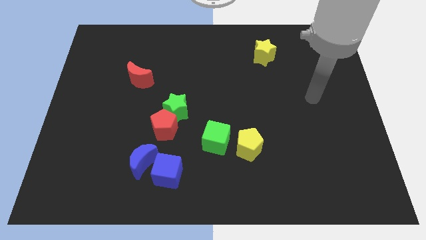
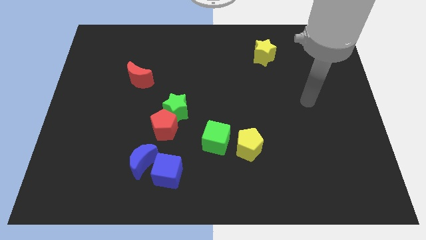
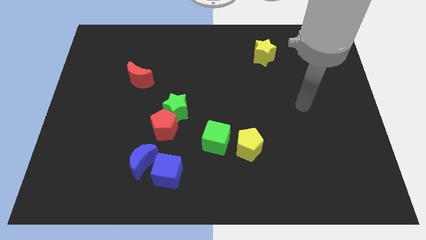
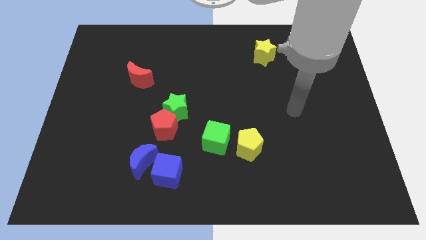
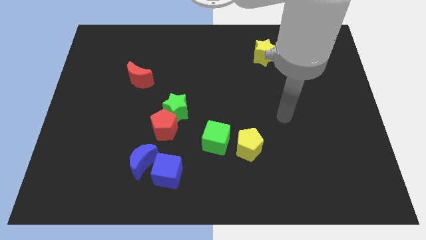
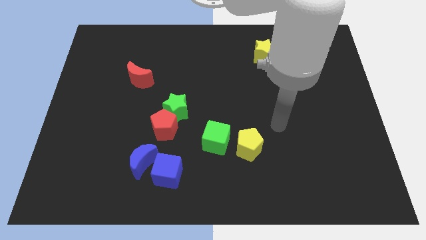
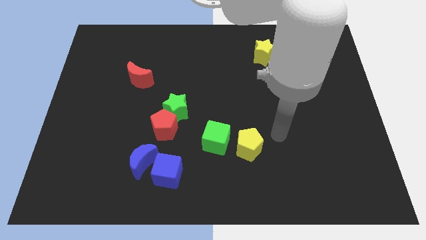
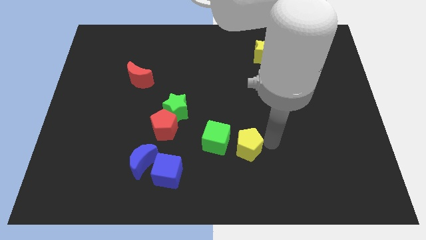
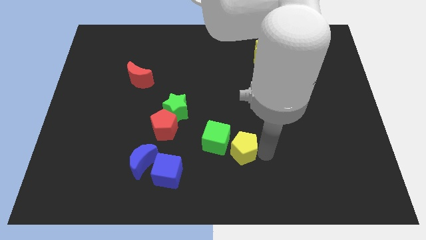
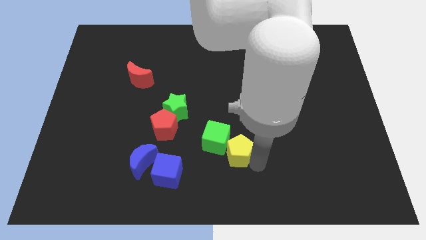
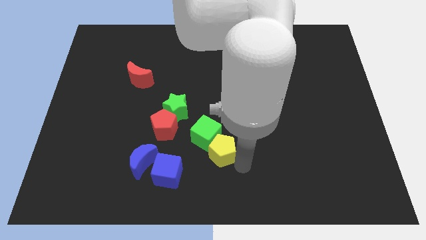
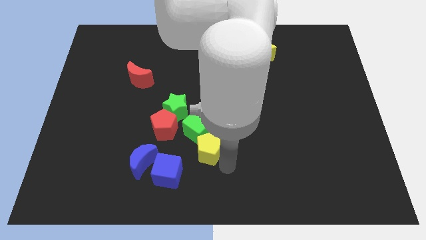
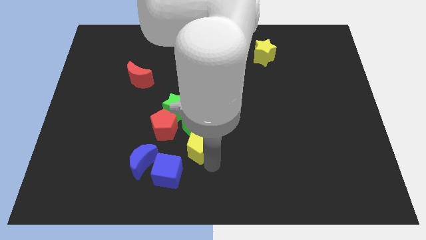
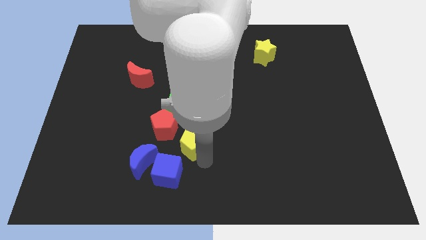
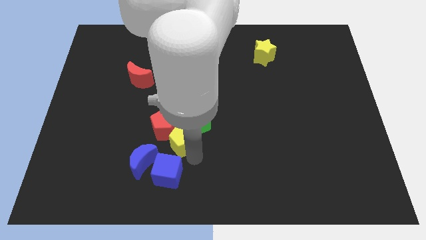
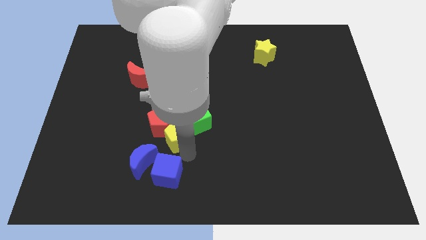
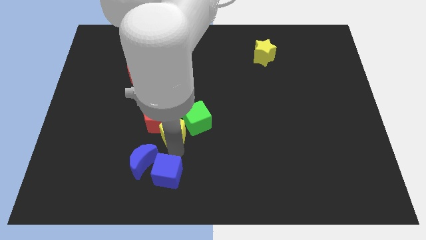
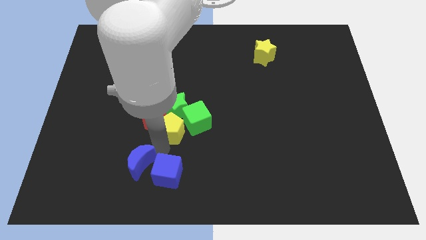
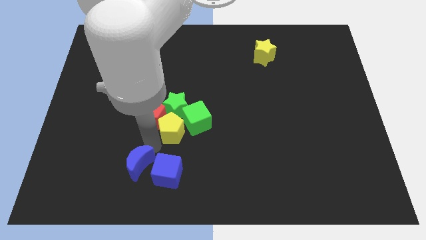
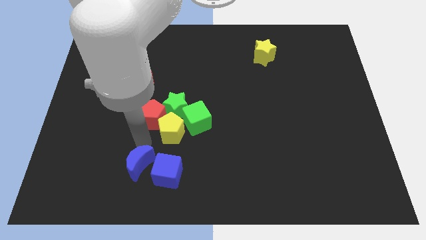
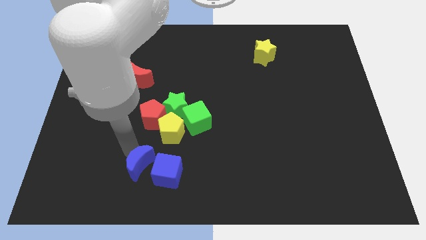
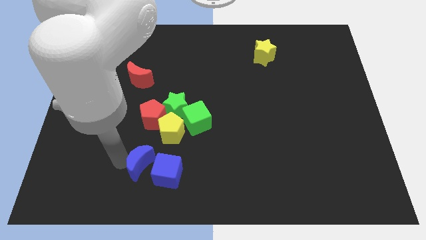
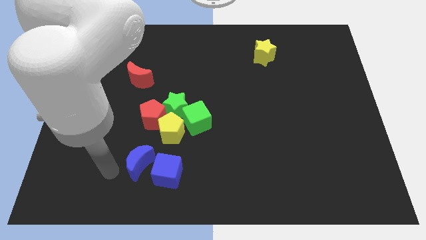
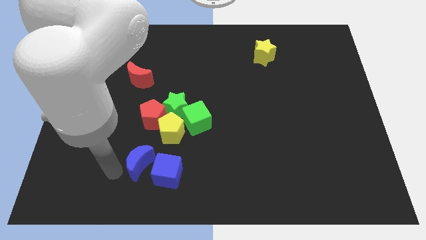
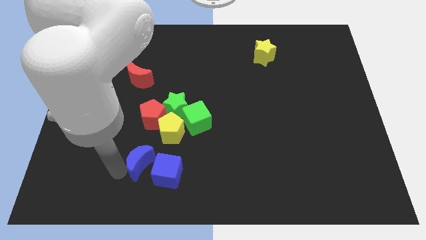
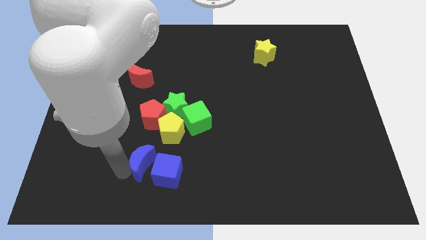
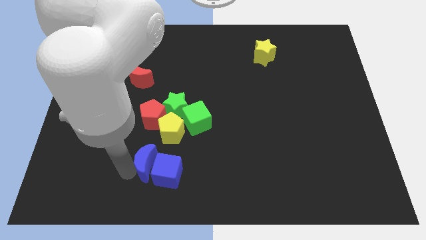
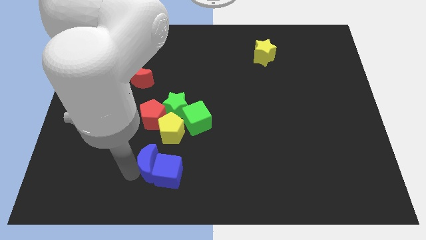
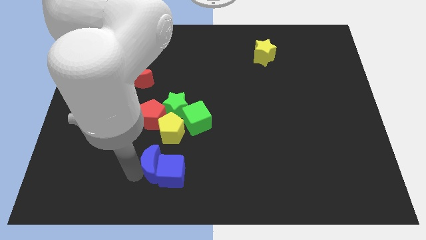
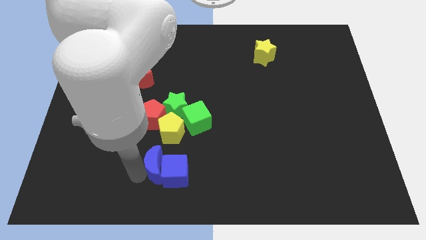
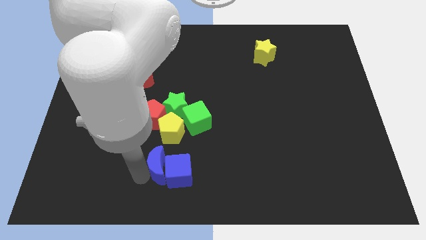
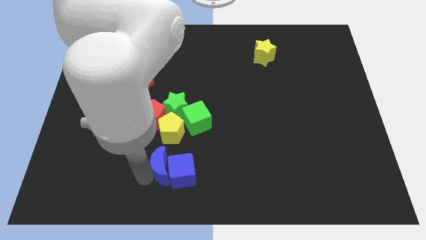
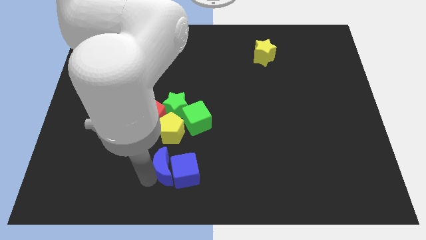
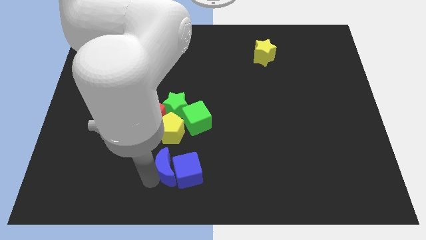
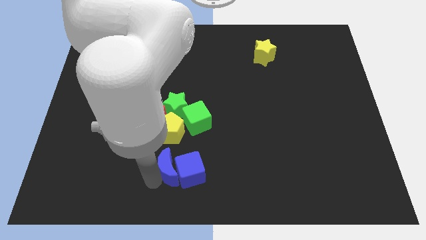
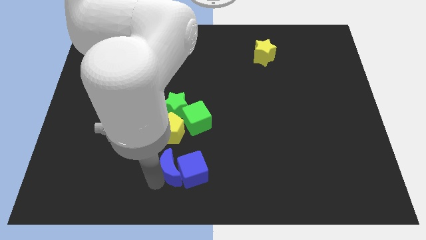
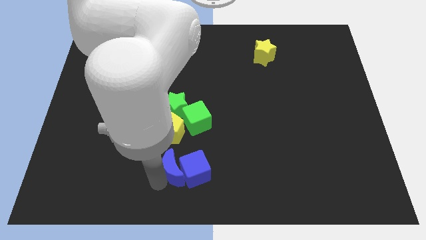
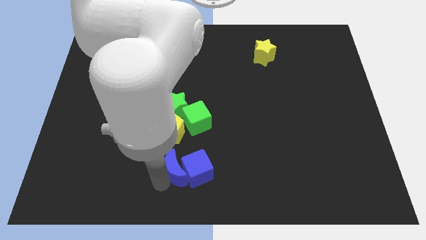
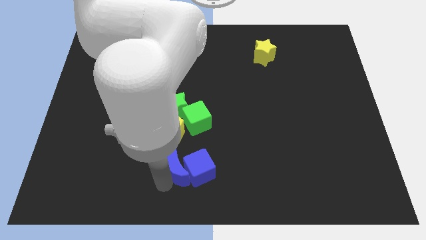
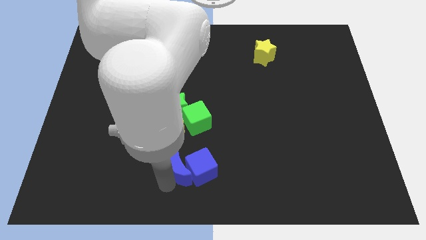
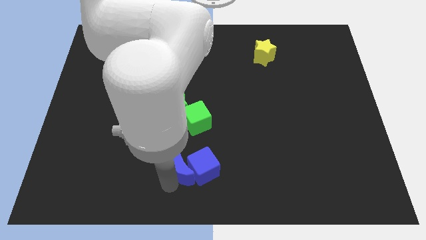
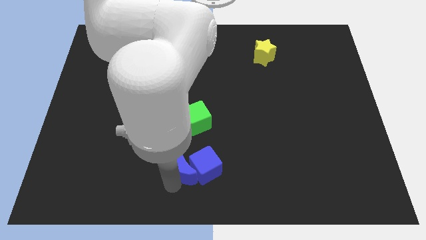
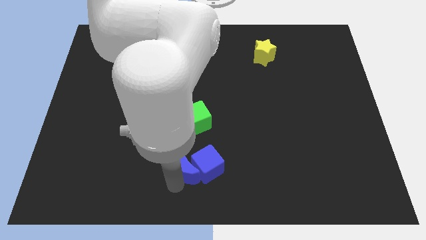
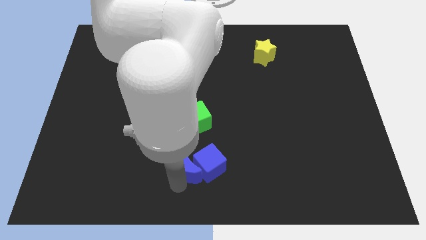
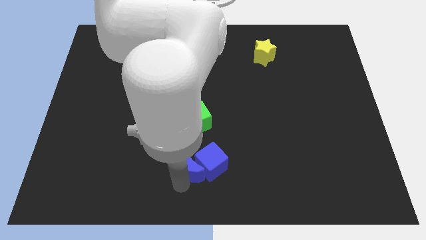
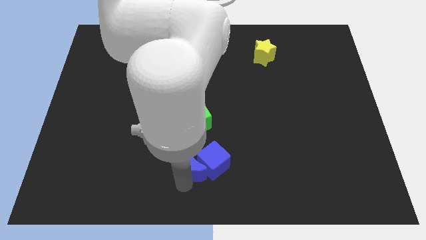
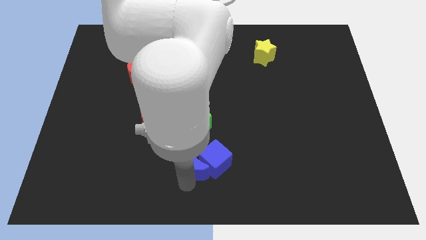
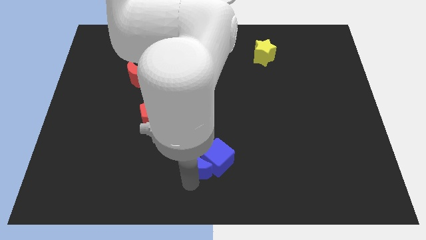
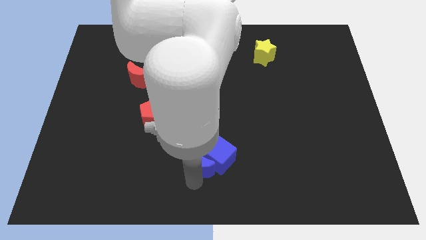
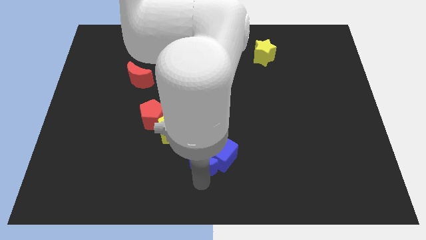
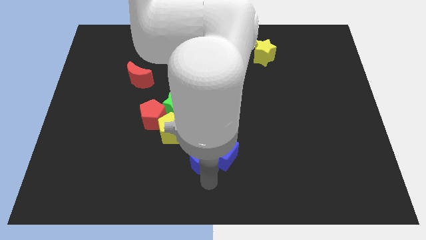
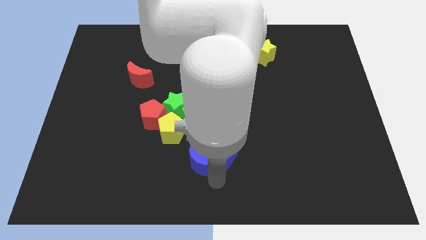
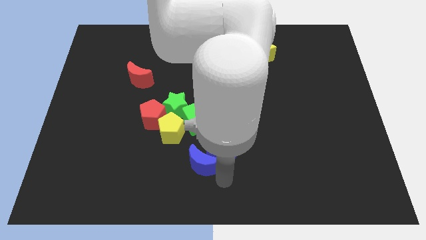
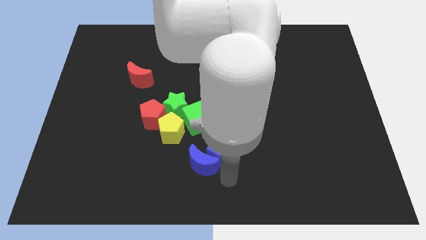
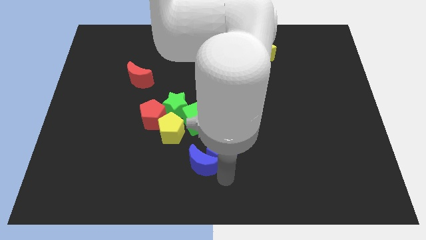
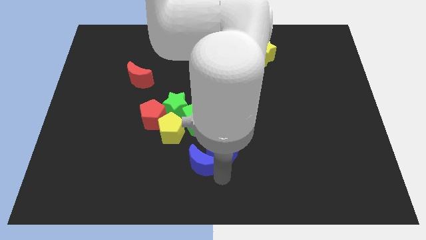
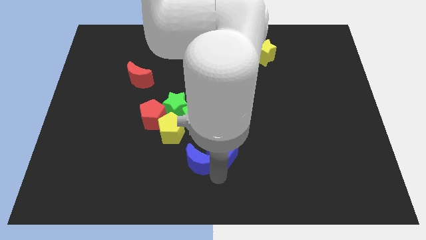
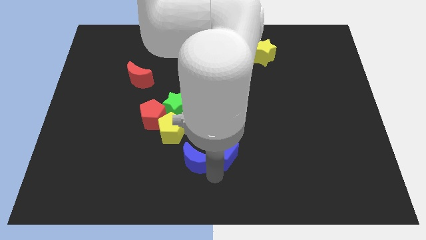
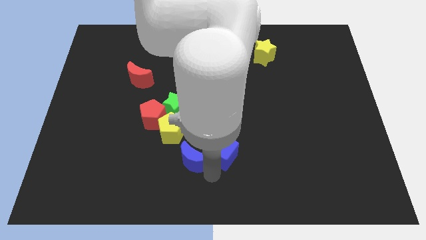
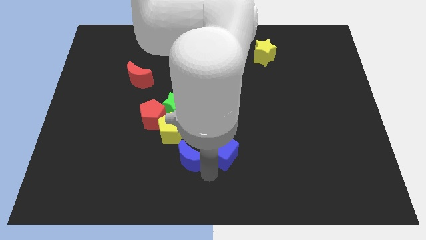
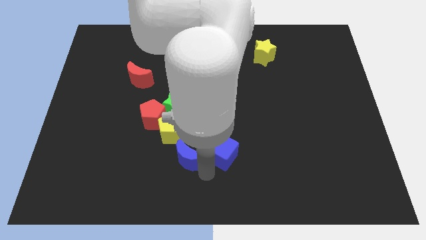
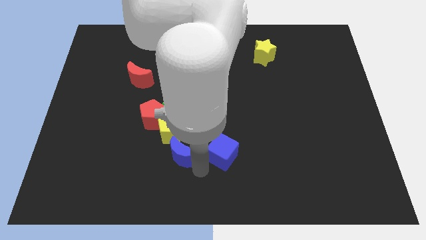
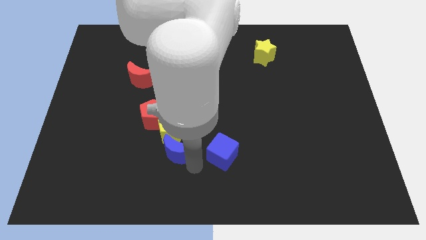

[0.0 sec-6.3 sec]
slide the blue moon towards the yellow pentagon

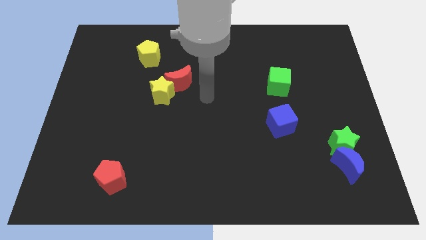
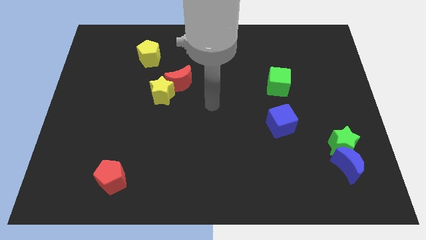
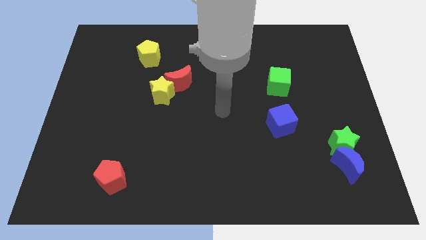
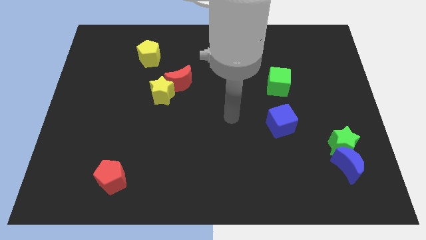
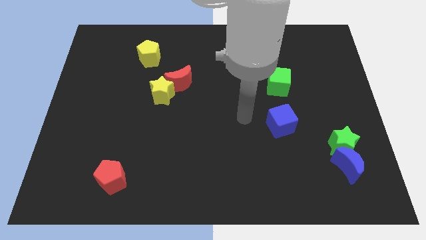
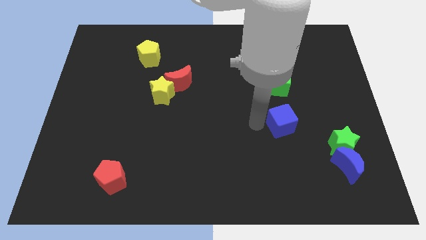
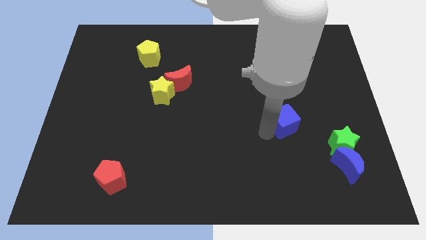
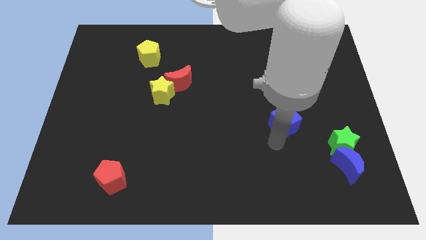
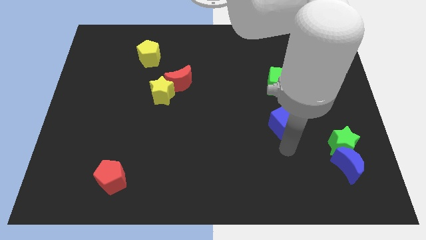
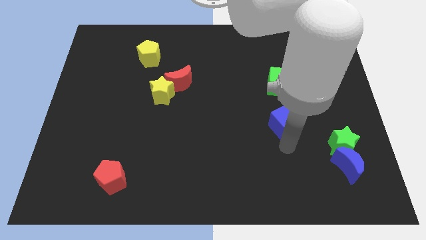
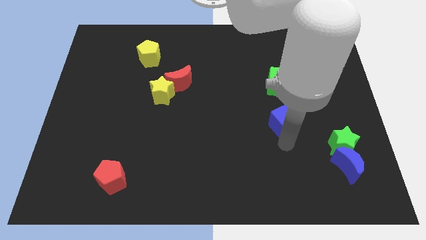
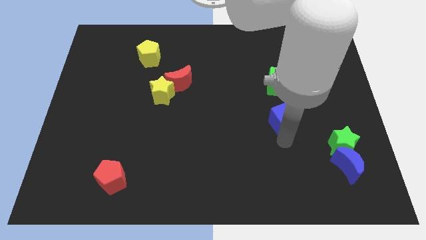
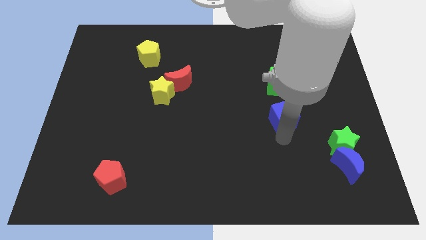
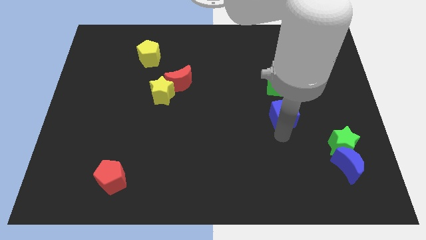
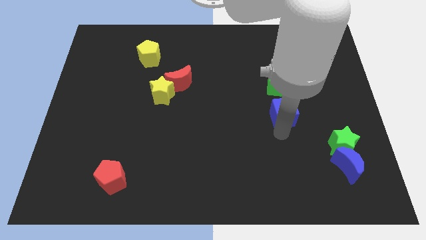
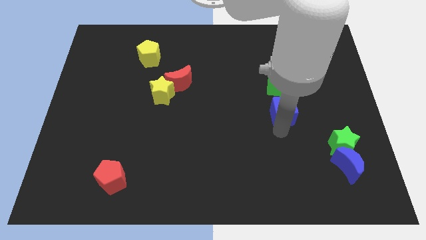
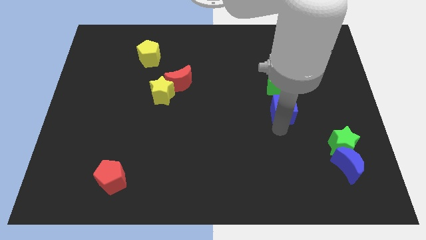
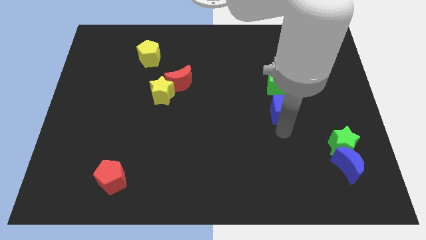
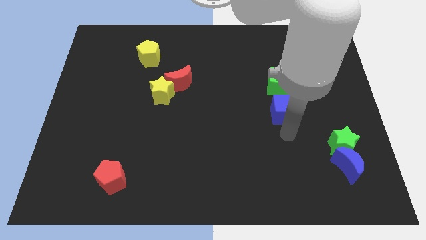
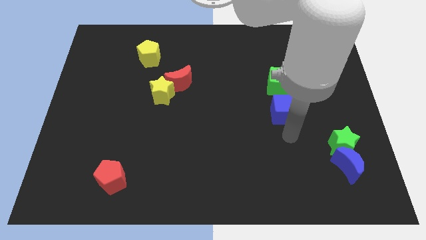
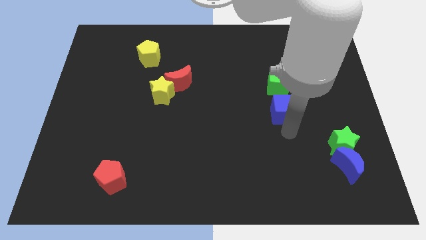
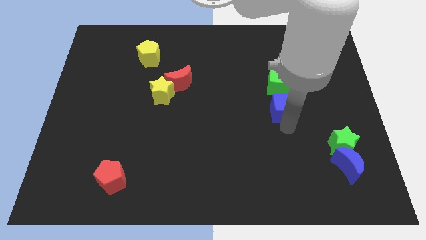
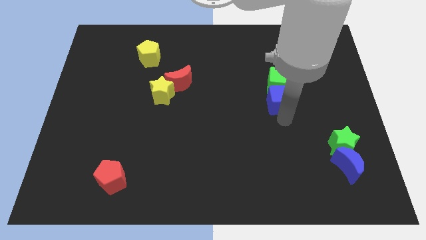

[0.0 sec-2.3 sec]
push the blue cube next to the green cube
